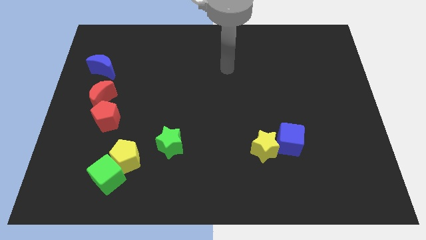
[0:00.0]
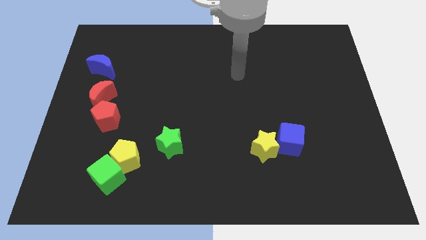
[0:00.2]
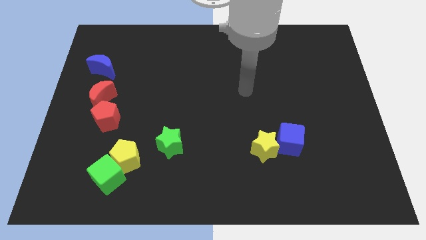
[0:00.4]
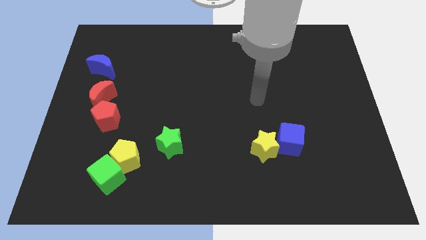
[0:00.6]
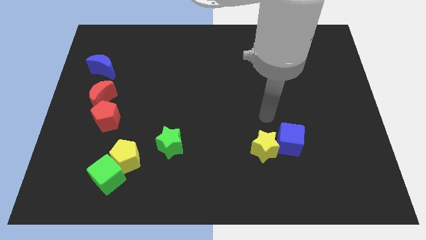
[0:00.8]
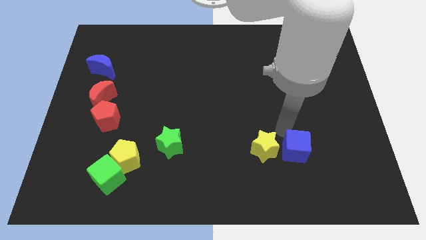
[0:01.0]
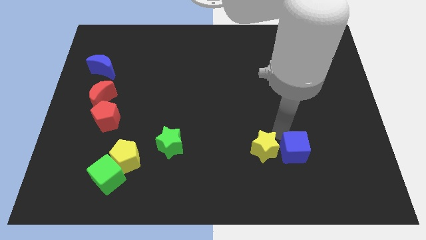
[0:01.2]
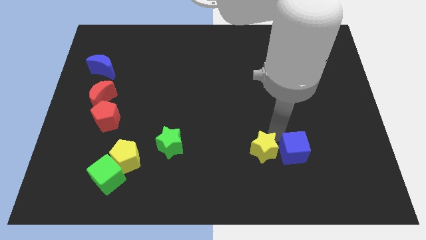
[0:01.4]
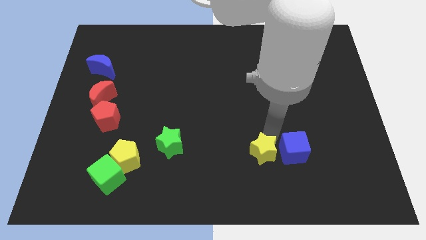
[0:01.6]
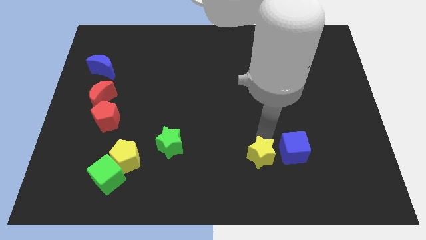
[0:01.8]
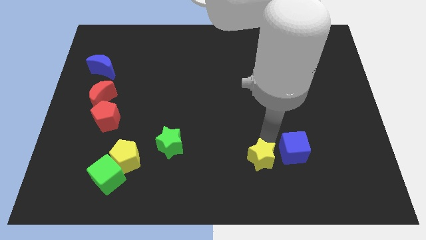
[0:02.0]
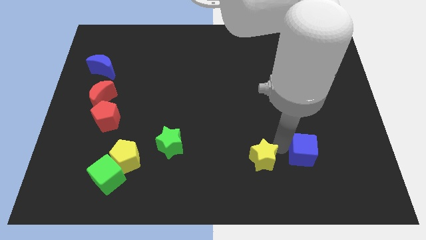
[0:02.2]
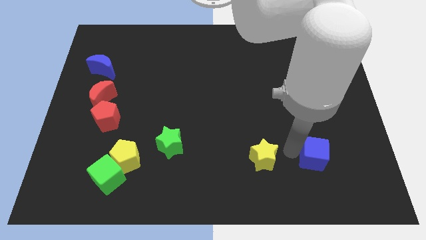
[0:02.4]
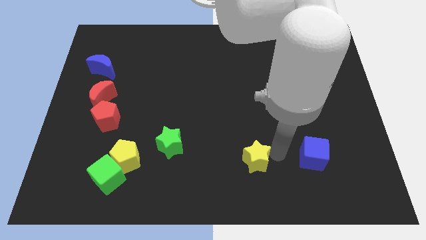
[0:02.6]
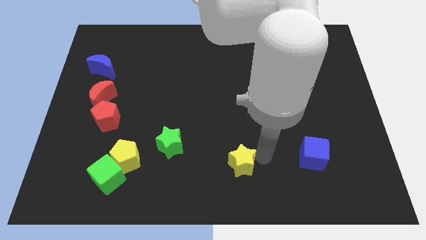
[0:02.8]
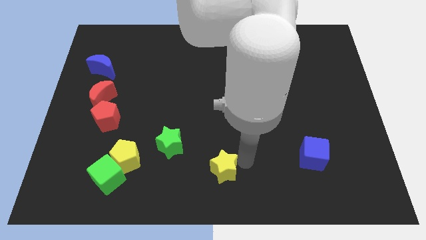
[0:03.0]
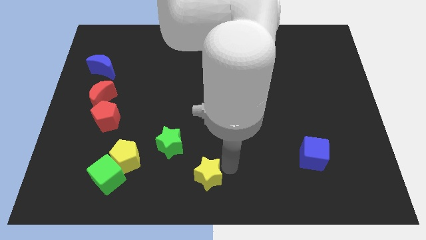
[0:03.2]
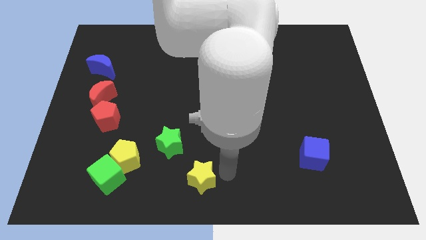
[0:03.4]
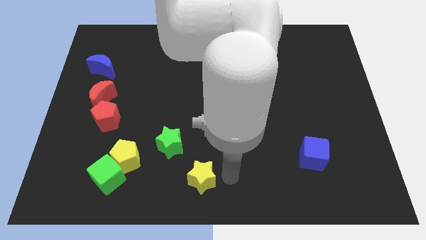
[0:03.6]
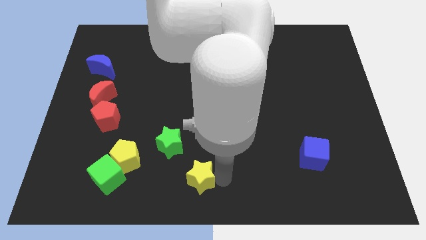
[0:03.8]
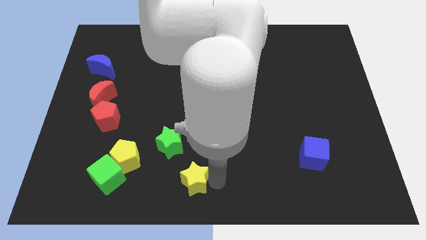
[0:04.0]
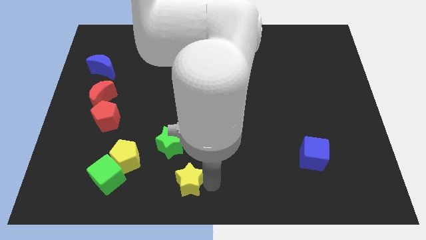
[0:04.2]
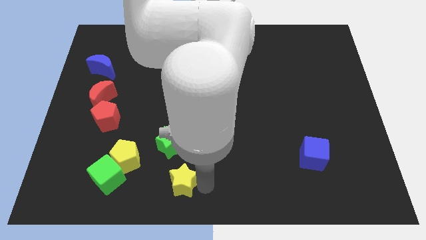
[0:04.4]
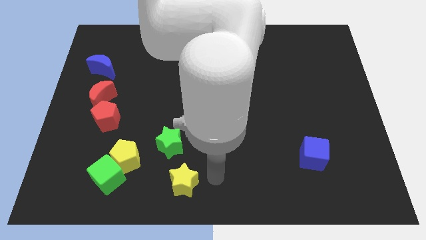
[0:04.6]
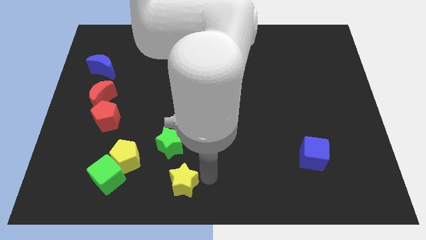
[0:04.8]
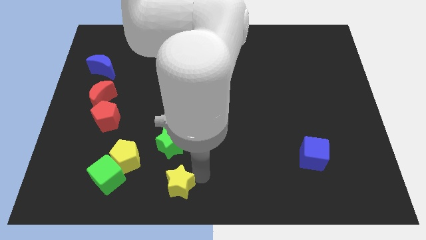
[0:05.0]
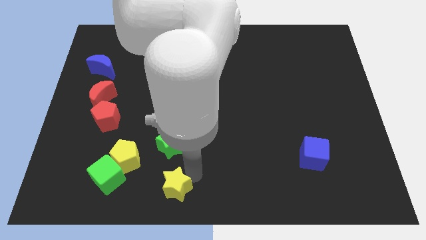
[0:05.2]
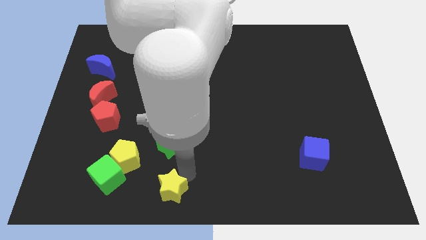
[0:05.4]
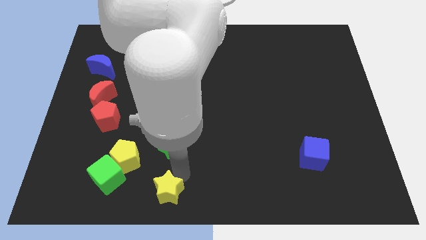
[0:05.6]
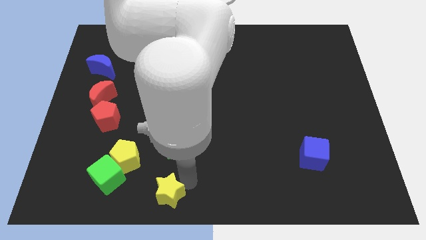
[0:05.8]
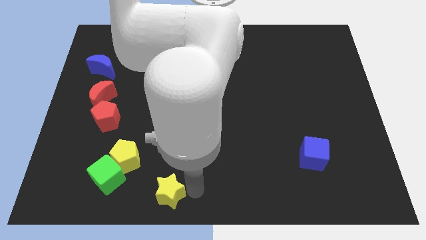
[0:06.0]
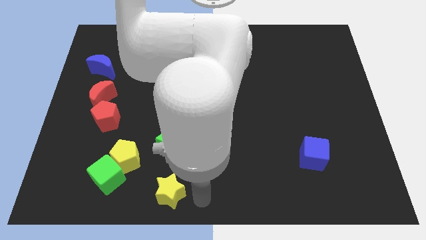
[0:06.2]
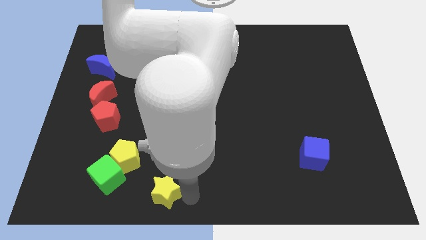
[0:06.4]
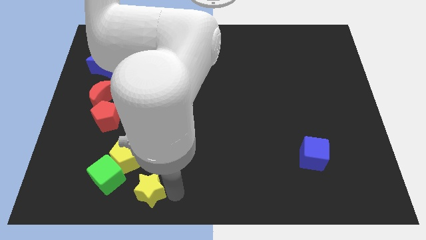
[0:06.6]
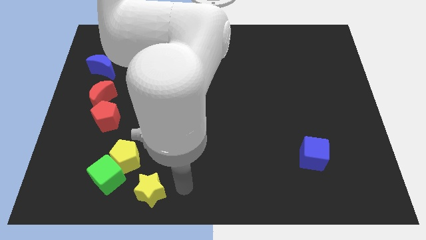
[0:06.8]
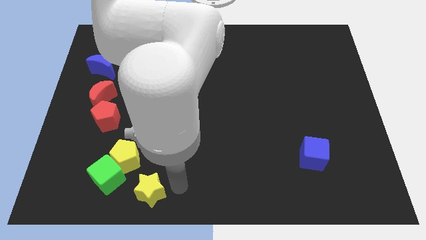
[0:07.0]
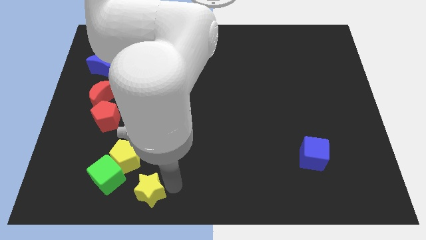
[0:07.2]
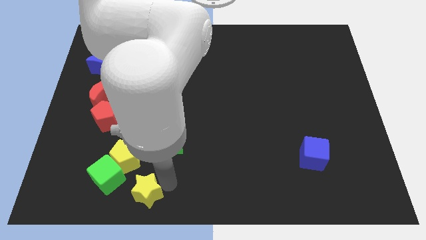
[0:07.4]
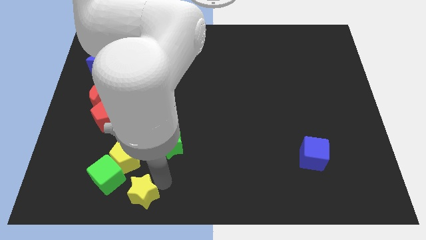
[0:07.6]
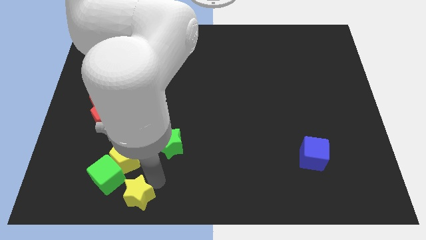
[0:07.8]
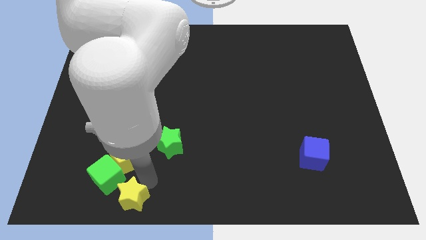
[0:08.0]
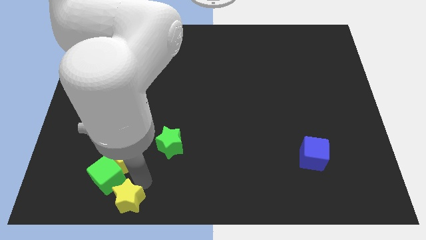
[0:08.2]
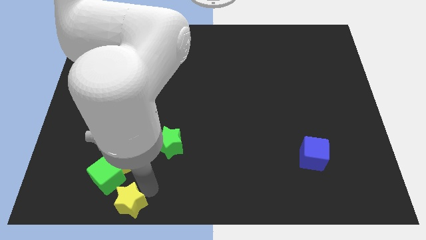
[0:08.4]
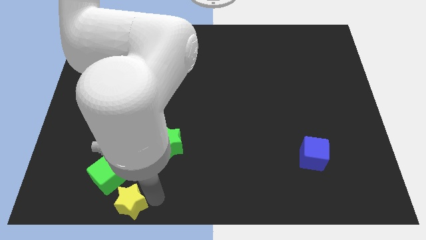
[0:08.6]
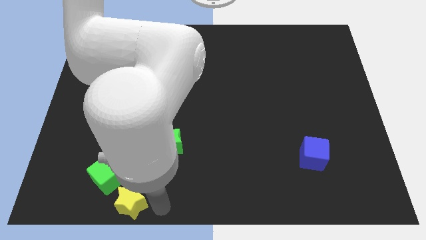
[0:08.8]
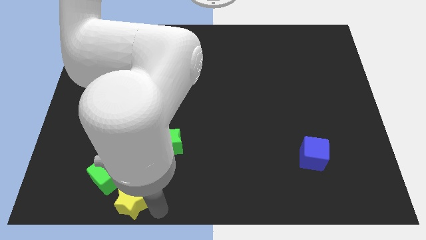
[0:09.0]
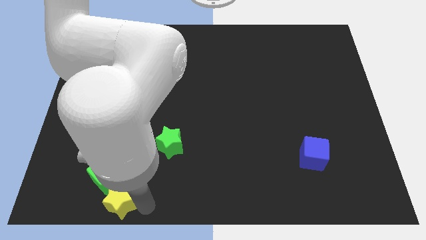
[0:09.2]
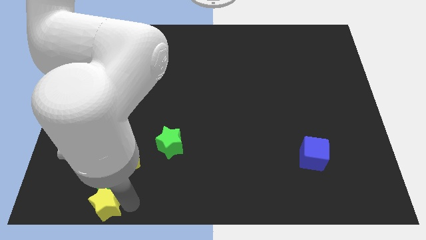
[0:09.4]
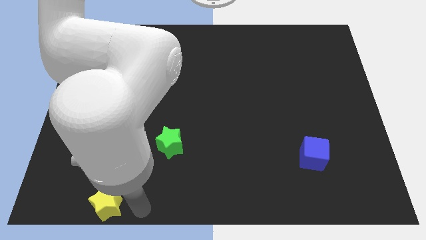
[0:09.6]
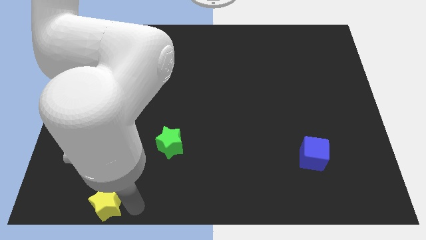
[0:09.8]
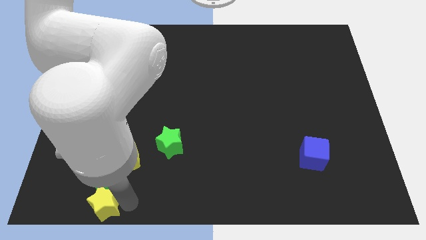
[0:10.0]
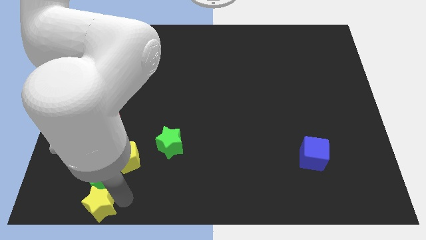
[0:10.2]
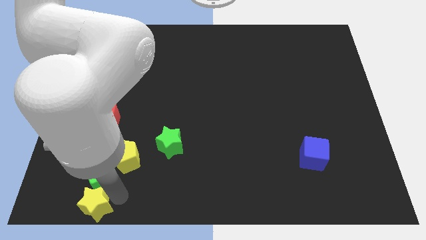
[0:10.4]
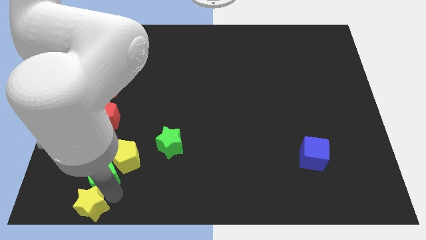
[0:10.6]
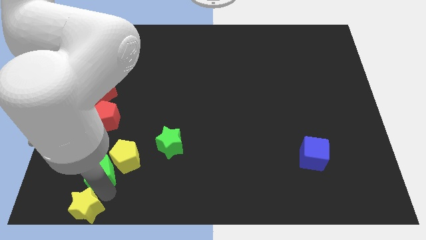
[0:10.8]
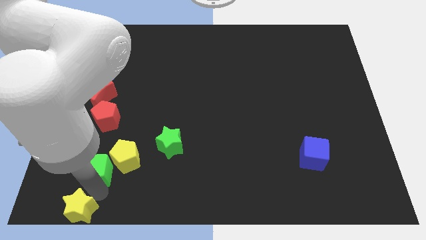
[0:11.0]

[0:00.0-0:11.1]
put the yellow star to the bottom left corner

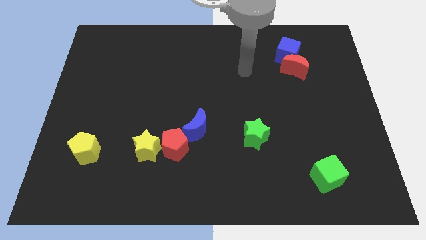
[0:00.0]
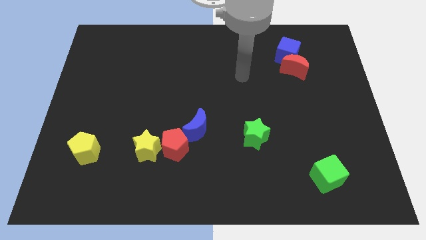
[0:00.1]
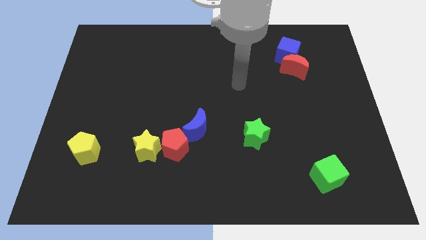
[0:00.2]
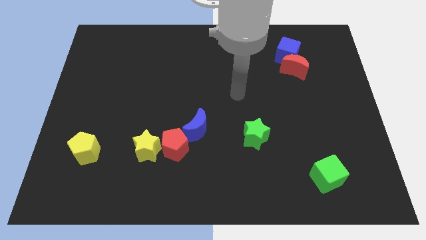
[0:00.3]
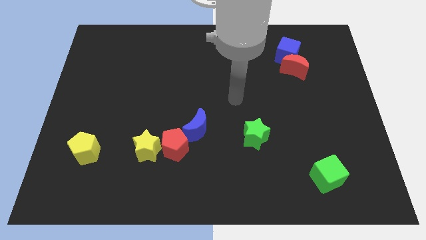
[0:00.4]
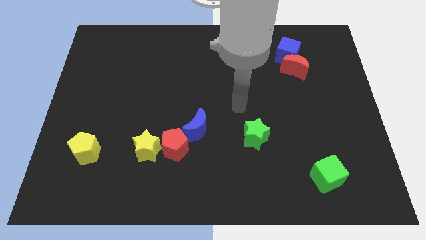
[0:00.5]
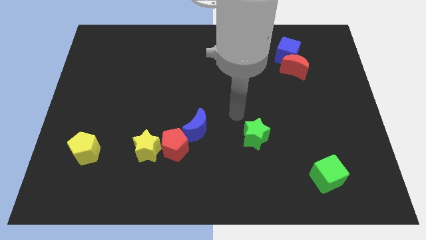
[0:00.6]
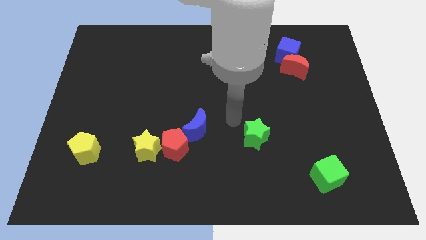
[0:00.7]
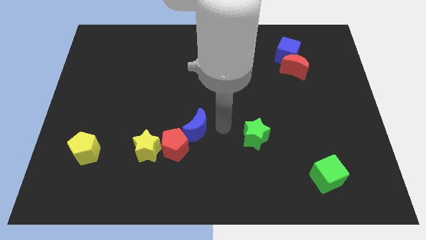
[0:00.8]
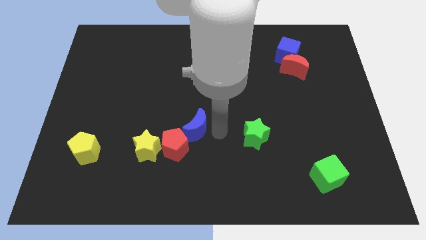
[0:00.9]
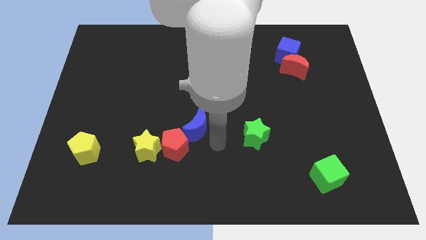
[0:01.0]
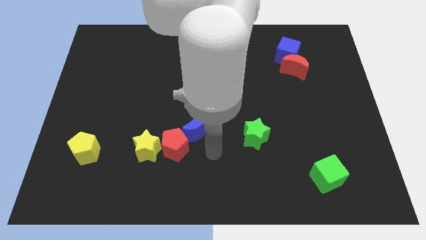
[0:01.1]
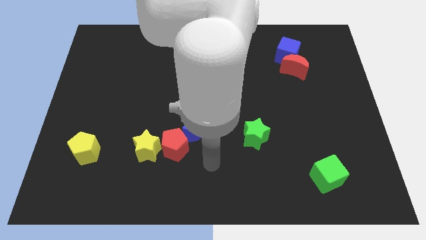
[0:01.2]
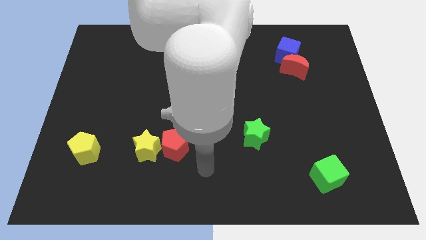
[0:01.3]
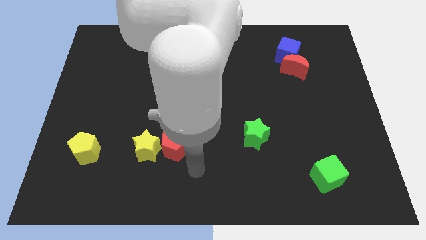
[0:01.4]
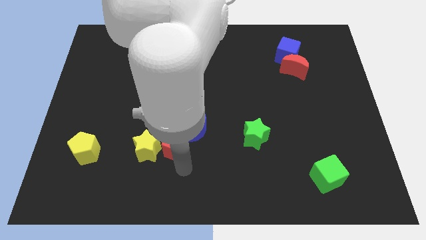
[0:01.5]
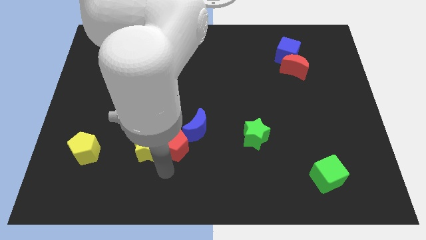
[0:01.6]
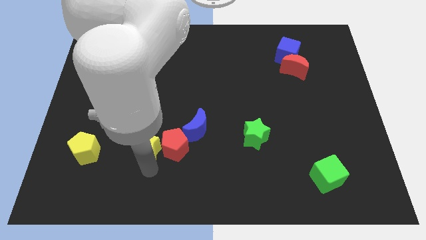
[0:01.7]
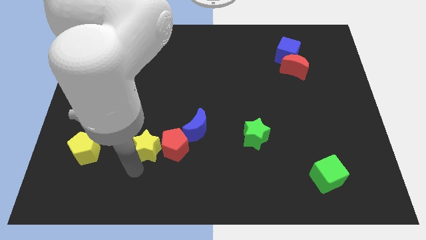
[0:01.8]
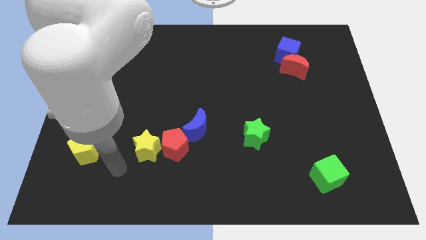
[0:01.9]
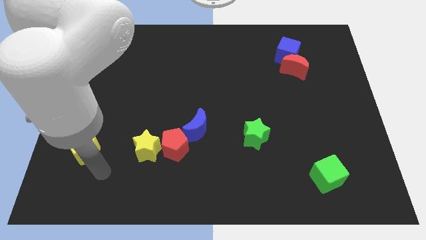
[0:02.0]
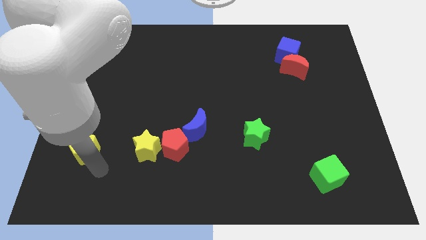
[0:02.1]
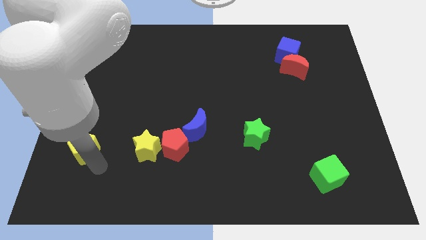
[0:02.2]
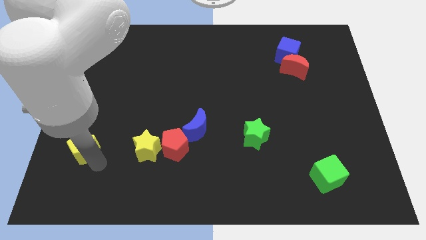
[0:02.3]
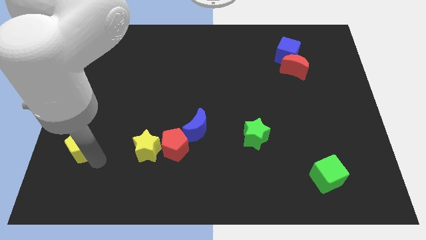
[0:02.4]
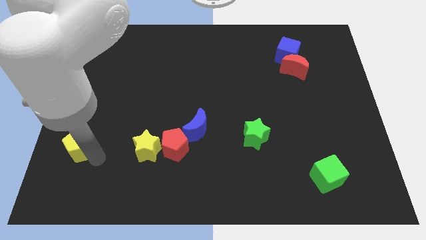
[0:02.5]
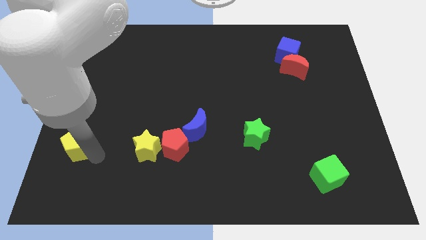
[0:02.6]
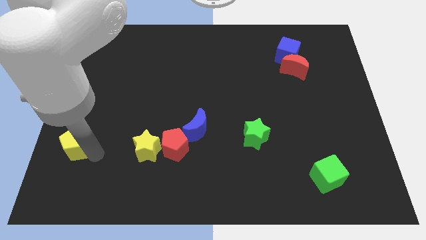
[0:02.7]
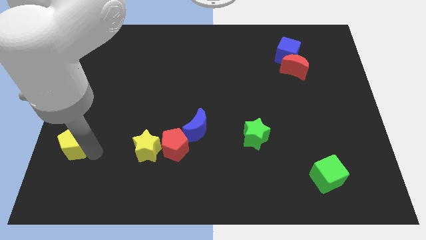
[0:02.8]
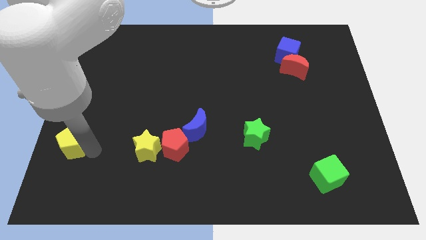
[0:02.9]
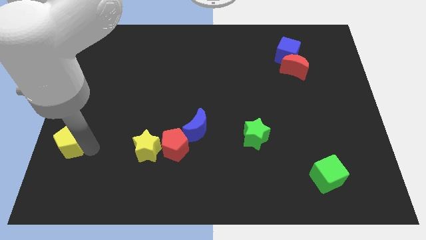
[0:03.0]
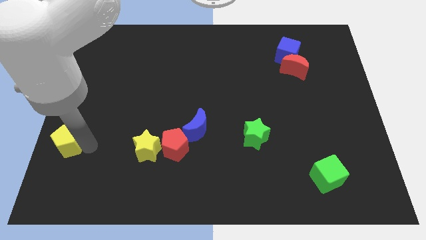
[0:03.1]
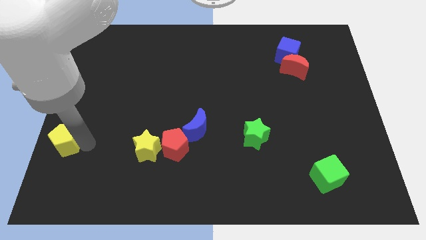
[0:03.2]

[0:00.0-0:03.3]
move the yellow pentagon to the center left
